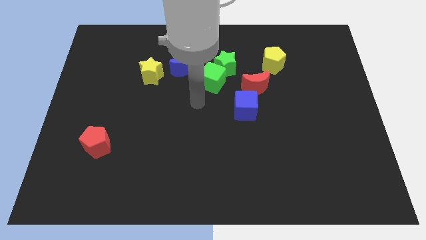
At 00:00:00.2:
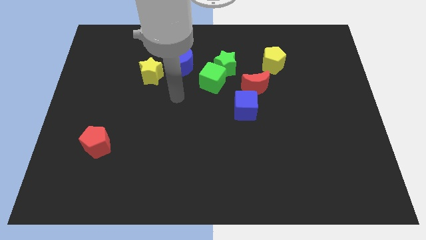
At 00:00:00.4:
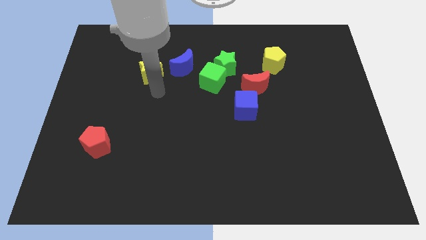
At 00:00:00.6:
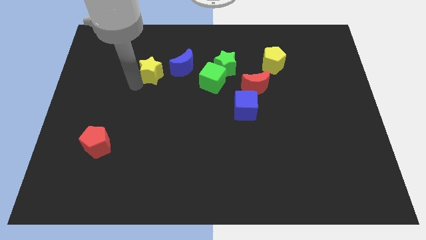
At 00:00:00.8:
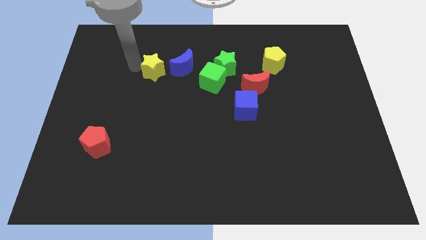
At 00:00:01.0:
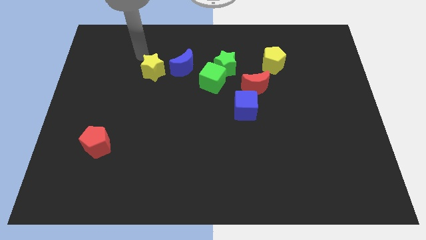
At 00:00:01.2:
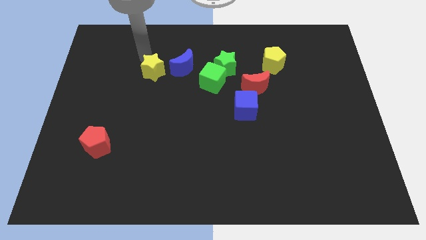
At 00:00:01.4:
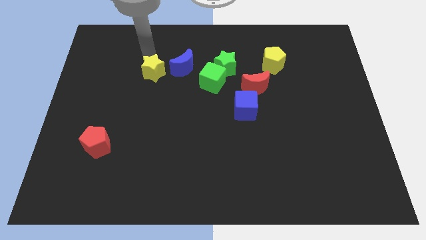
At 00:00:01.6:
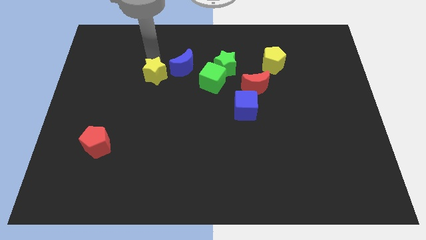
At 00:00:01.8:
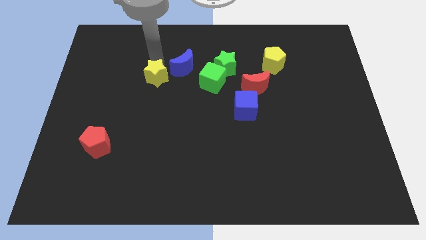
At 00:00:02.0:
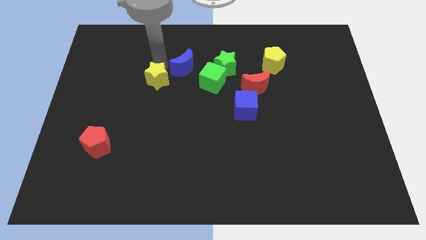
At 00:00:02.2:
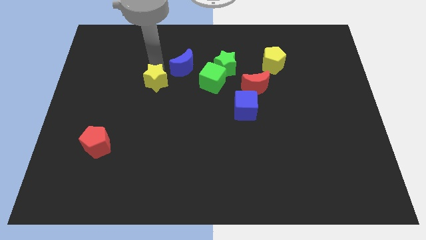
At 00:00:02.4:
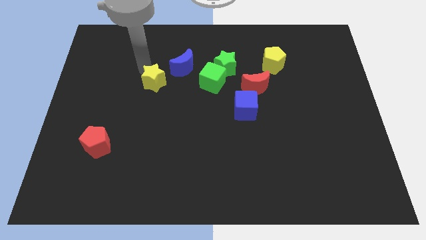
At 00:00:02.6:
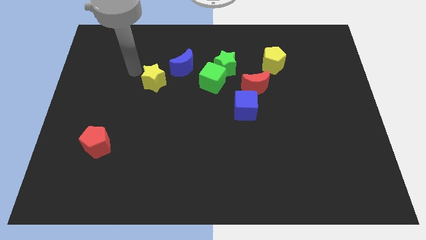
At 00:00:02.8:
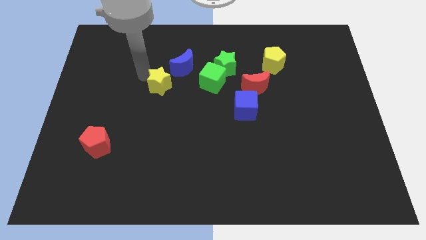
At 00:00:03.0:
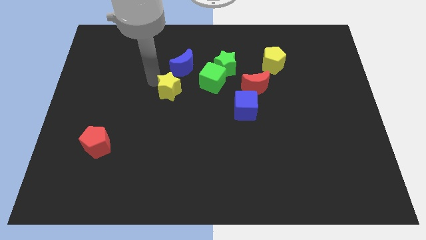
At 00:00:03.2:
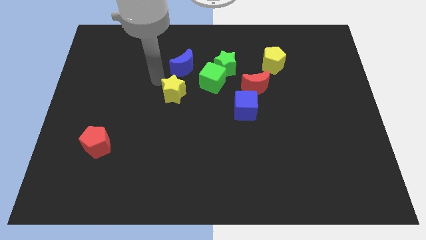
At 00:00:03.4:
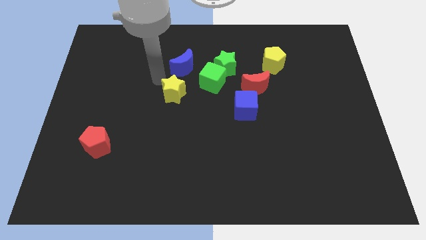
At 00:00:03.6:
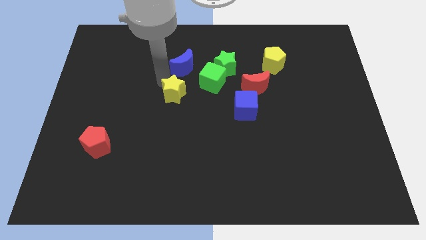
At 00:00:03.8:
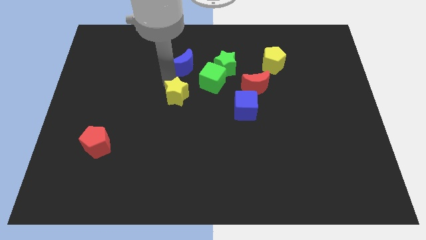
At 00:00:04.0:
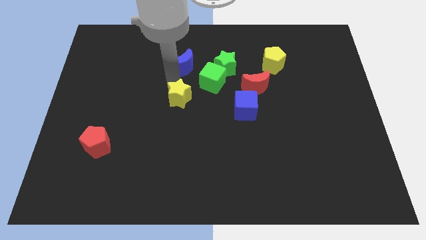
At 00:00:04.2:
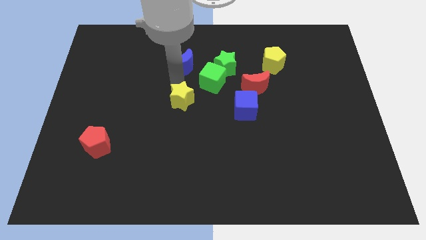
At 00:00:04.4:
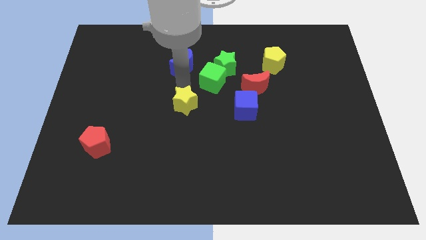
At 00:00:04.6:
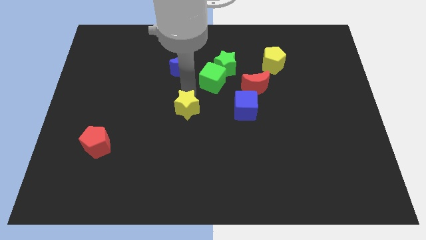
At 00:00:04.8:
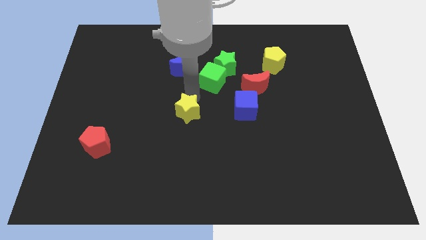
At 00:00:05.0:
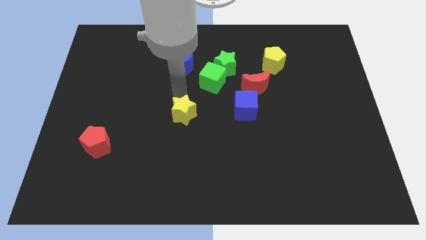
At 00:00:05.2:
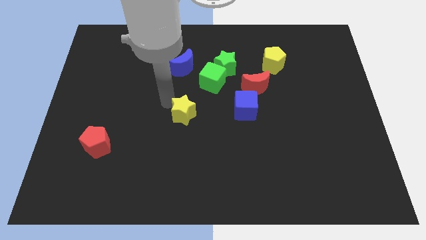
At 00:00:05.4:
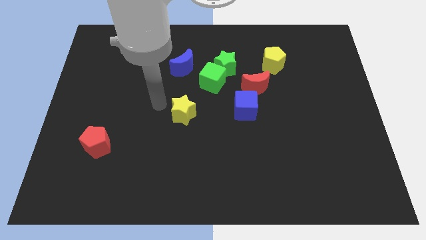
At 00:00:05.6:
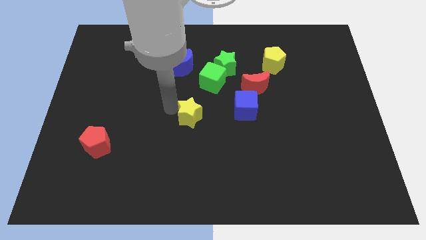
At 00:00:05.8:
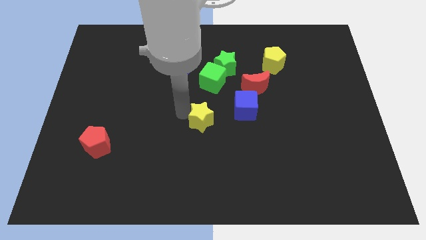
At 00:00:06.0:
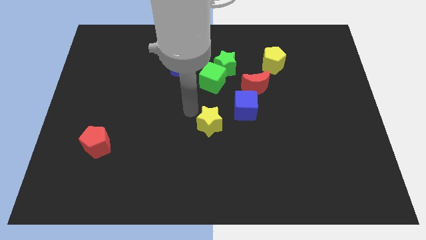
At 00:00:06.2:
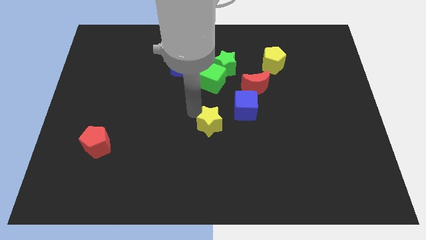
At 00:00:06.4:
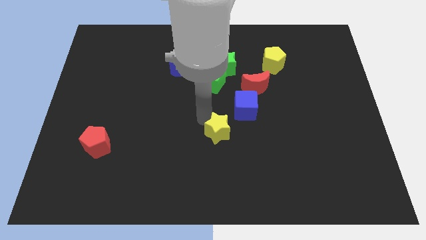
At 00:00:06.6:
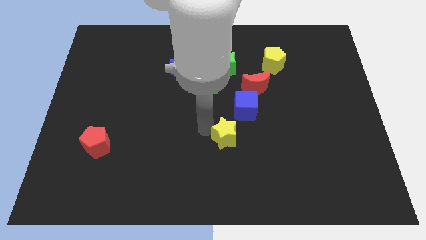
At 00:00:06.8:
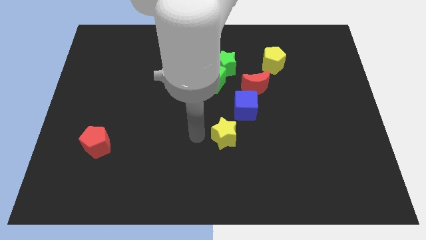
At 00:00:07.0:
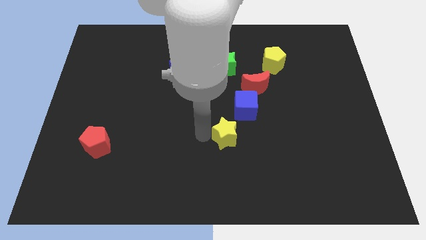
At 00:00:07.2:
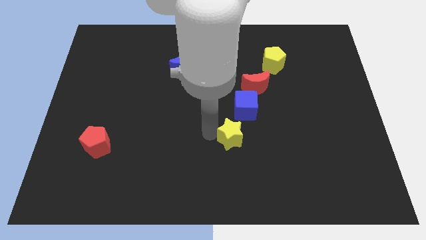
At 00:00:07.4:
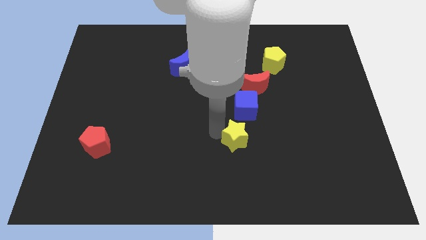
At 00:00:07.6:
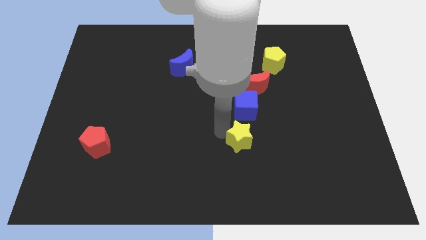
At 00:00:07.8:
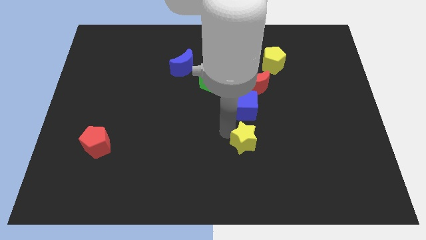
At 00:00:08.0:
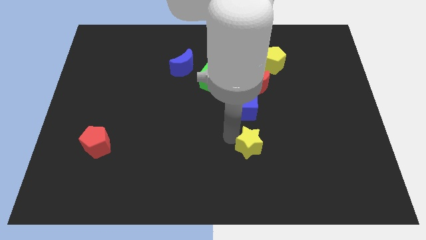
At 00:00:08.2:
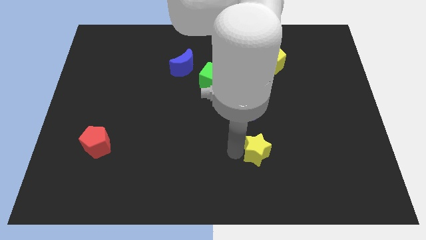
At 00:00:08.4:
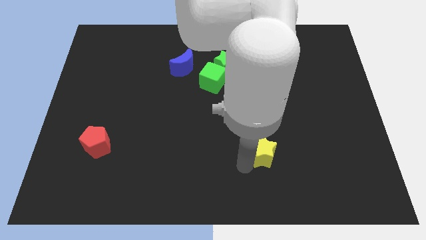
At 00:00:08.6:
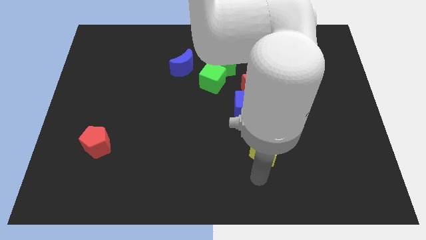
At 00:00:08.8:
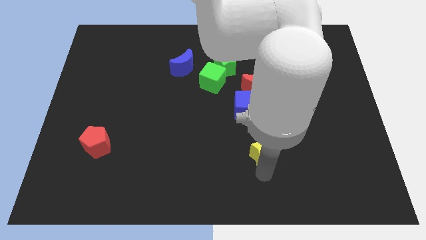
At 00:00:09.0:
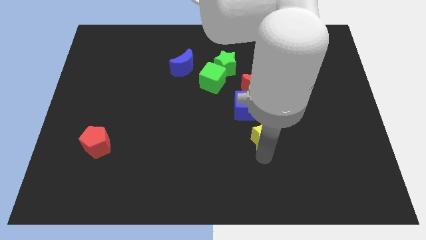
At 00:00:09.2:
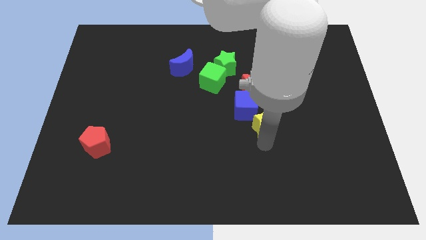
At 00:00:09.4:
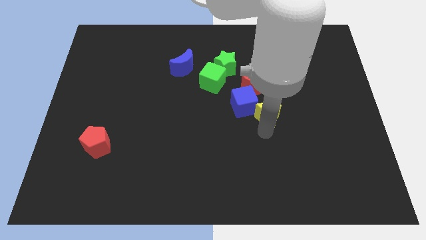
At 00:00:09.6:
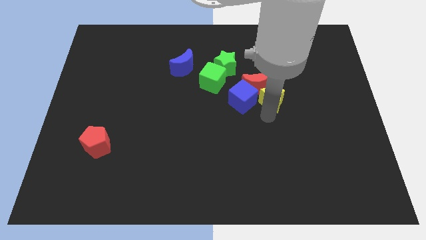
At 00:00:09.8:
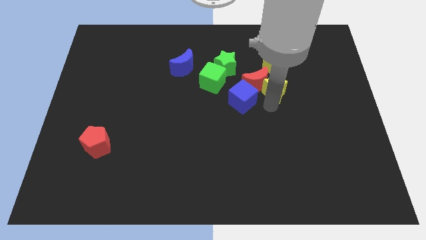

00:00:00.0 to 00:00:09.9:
push the yellow star right of the green cube

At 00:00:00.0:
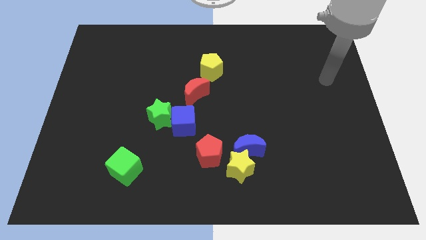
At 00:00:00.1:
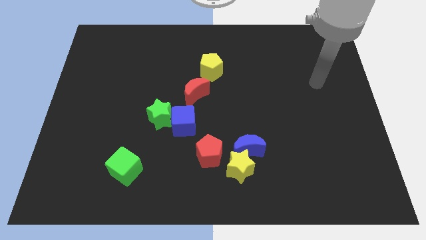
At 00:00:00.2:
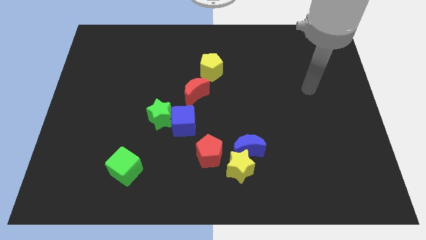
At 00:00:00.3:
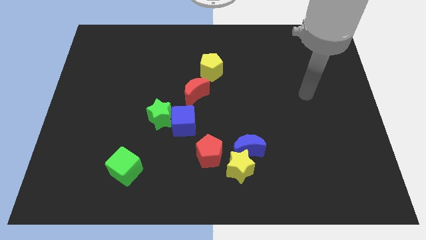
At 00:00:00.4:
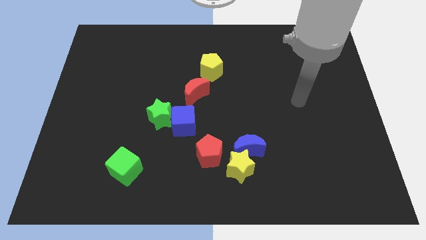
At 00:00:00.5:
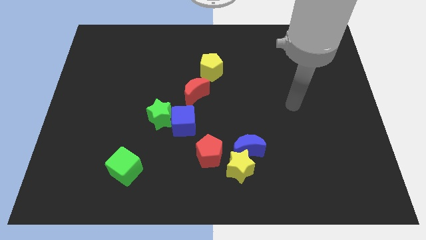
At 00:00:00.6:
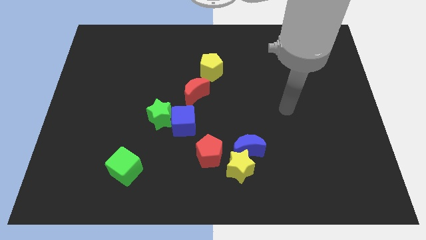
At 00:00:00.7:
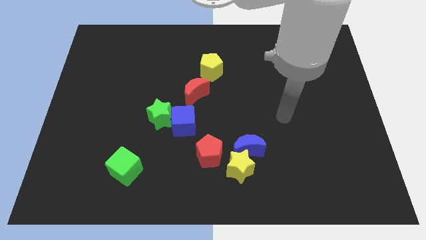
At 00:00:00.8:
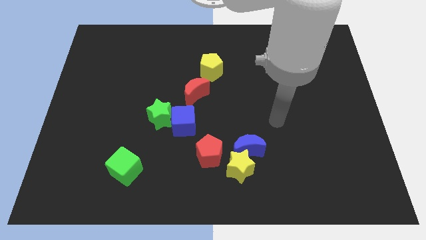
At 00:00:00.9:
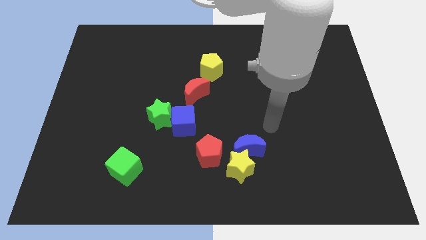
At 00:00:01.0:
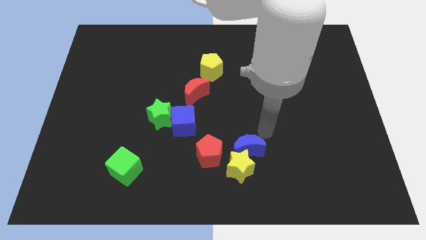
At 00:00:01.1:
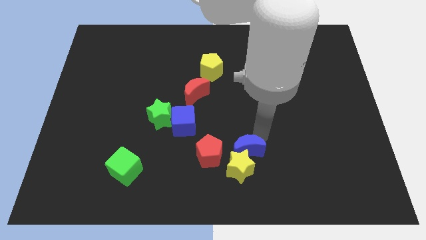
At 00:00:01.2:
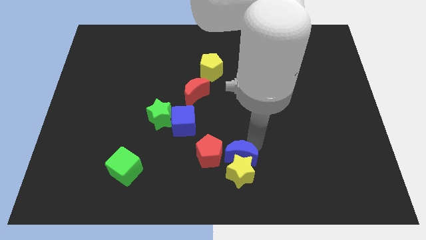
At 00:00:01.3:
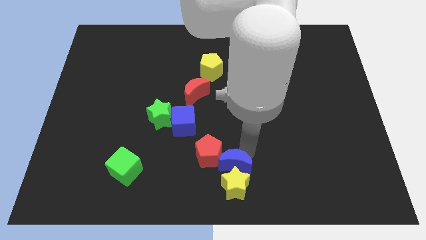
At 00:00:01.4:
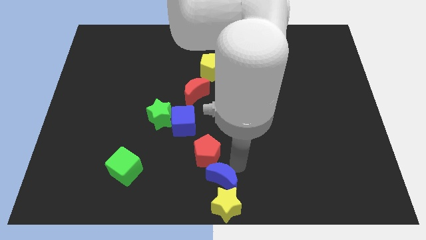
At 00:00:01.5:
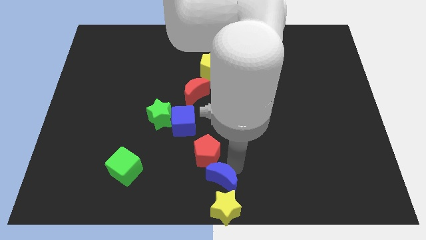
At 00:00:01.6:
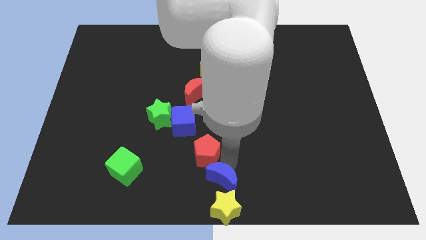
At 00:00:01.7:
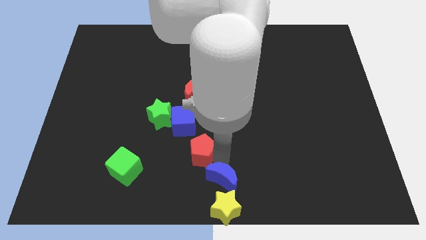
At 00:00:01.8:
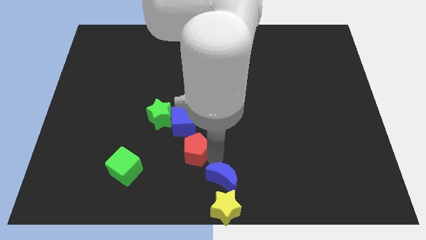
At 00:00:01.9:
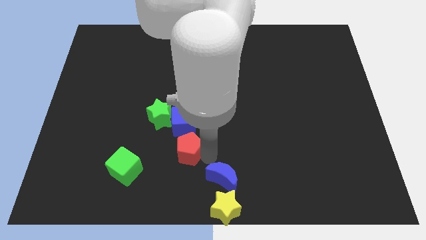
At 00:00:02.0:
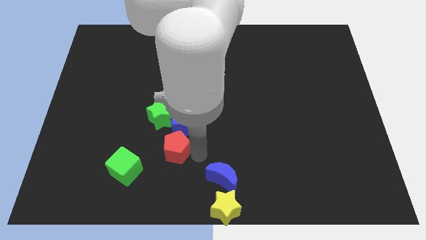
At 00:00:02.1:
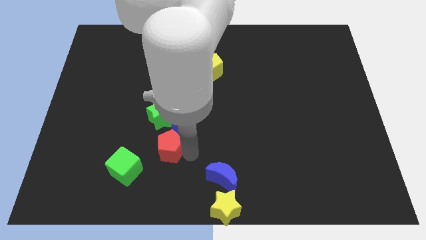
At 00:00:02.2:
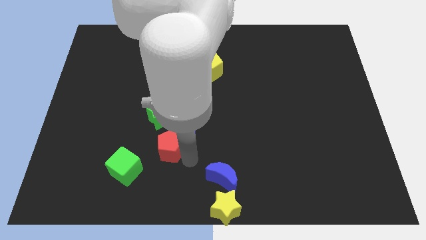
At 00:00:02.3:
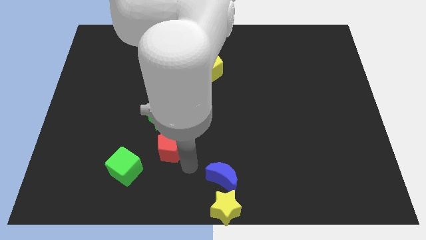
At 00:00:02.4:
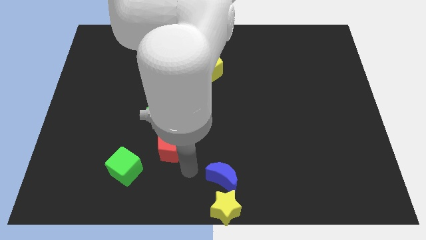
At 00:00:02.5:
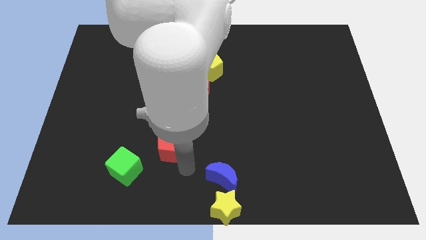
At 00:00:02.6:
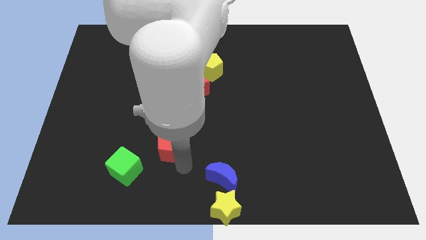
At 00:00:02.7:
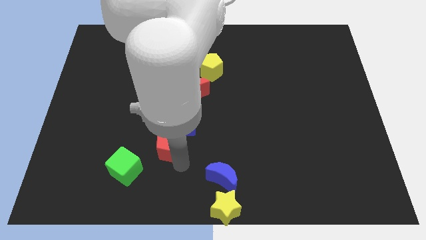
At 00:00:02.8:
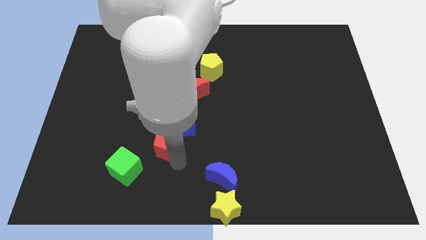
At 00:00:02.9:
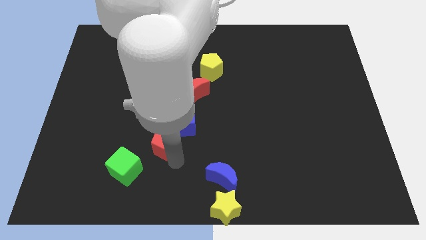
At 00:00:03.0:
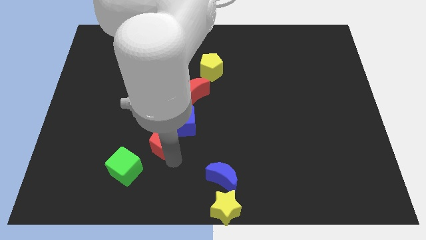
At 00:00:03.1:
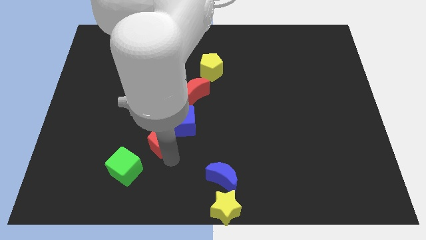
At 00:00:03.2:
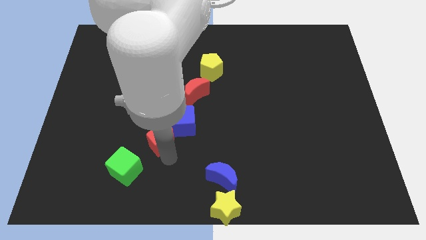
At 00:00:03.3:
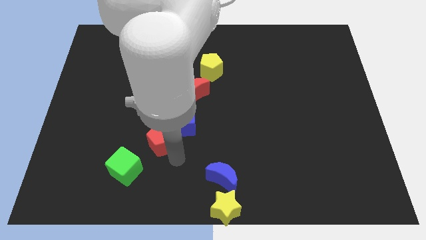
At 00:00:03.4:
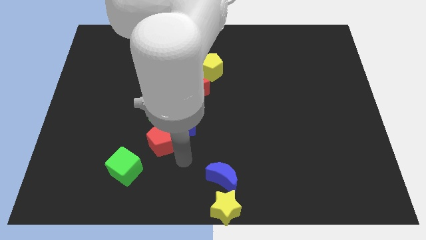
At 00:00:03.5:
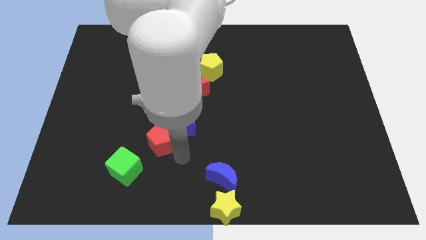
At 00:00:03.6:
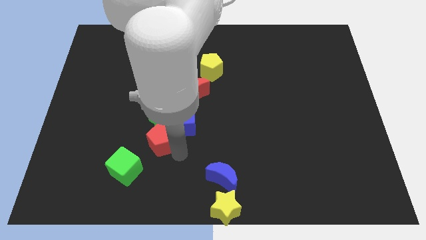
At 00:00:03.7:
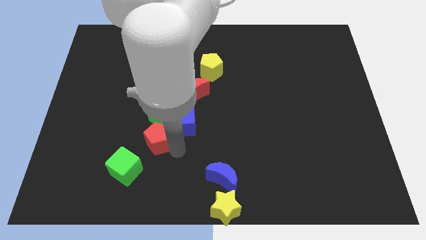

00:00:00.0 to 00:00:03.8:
move the red pentagon to the left of the blue cube
